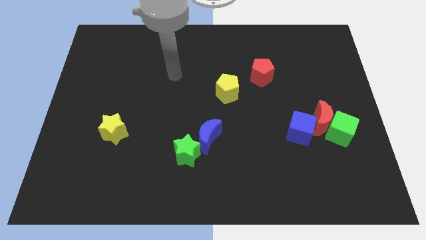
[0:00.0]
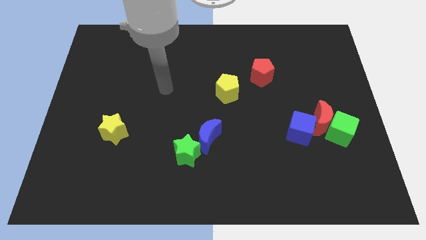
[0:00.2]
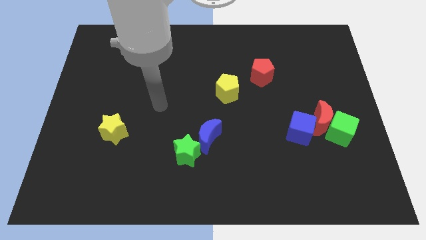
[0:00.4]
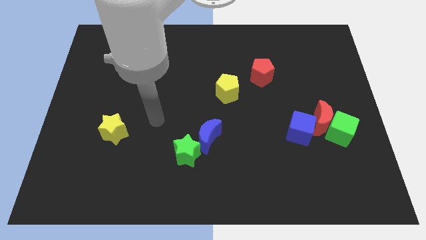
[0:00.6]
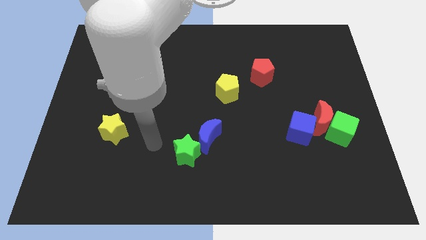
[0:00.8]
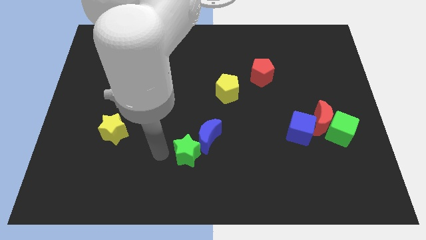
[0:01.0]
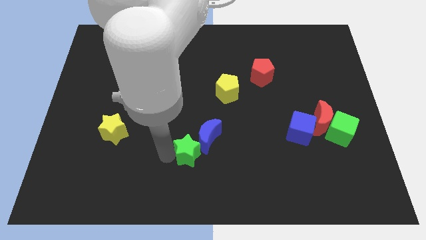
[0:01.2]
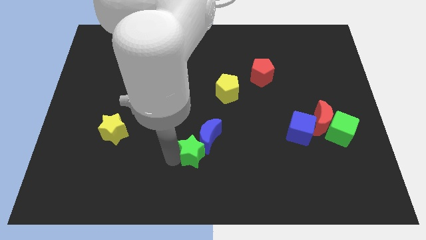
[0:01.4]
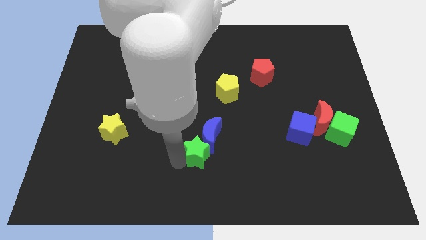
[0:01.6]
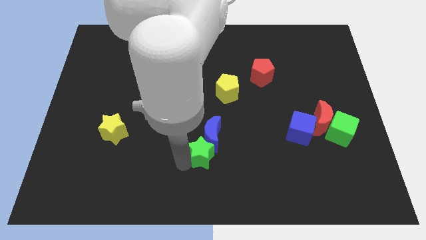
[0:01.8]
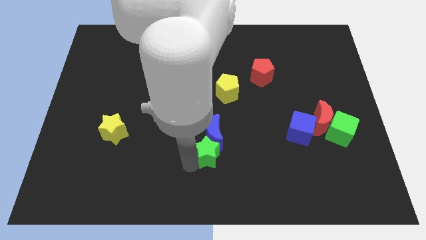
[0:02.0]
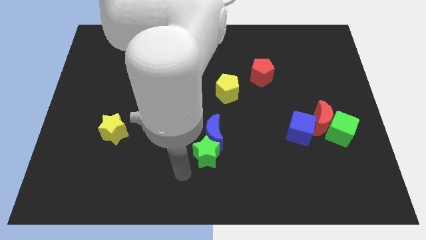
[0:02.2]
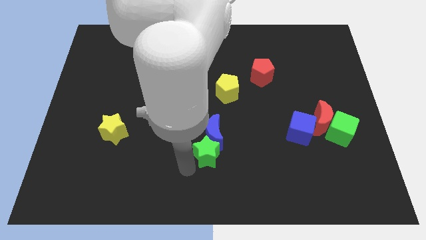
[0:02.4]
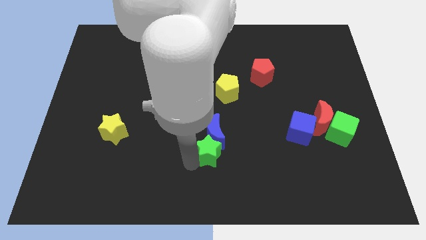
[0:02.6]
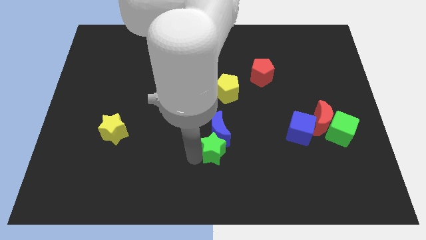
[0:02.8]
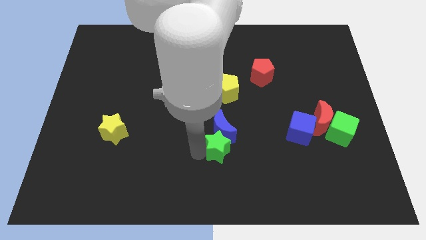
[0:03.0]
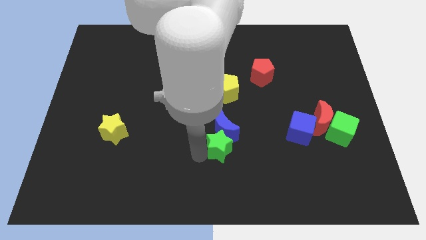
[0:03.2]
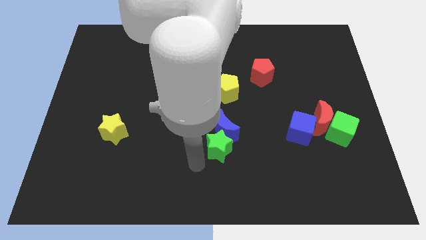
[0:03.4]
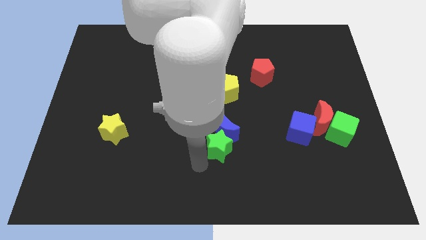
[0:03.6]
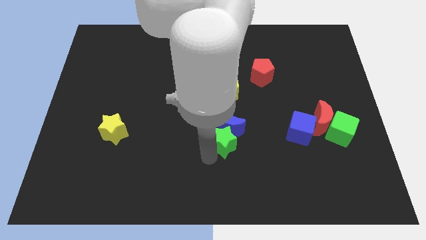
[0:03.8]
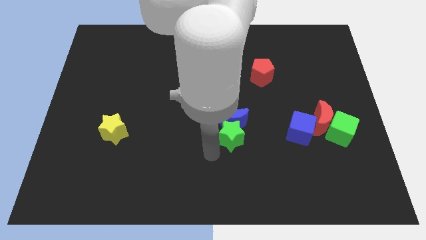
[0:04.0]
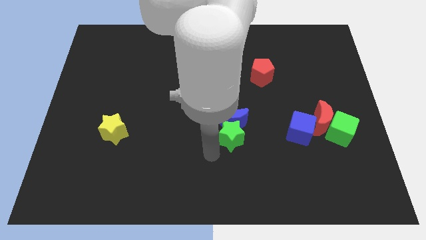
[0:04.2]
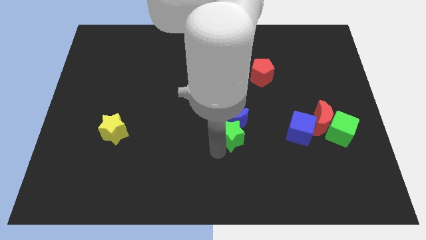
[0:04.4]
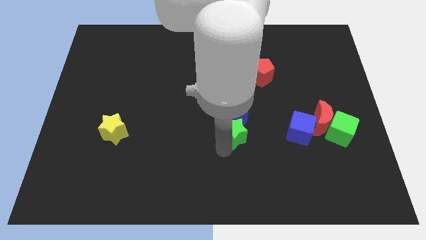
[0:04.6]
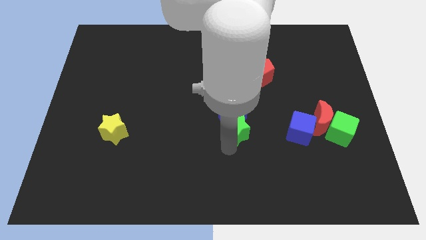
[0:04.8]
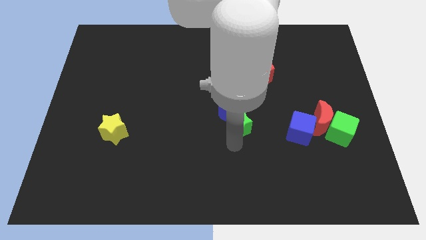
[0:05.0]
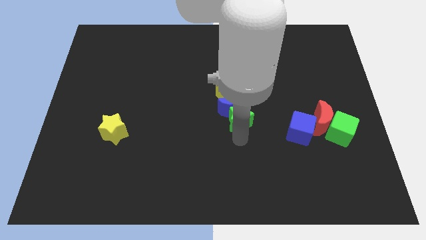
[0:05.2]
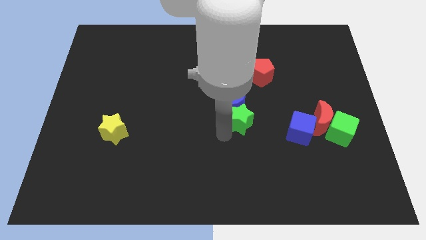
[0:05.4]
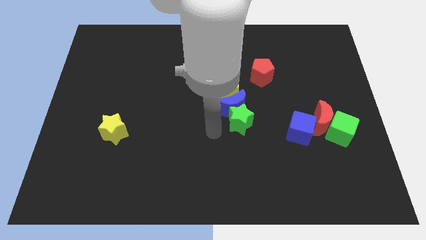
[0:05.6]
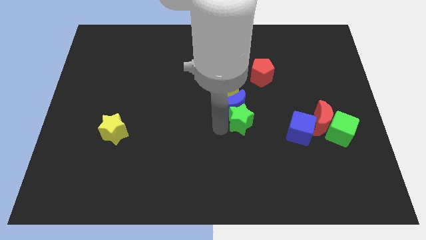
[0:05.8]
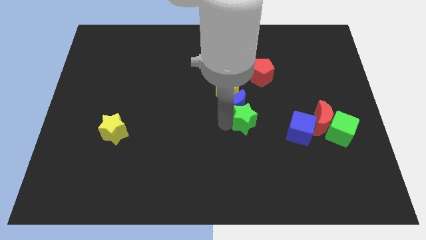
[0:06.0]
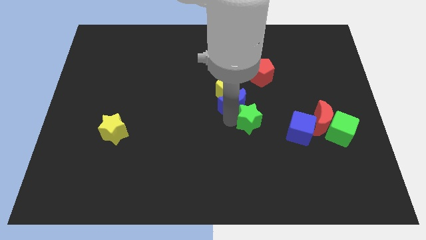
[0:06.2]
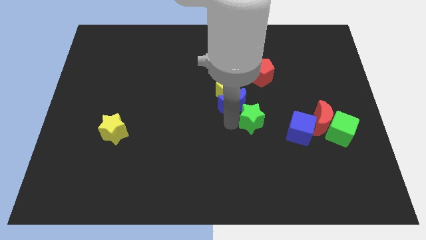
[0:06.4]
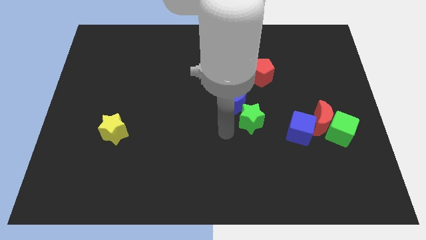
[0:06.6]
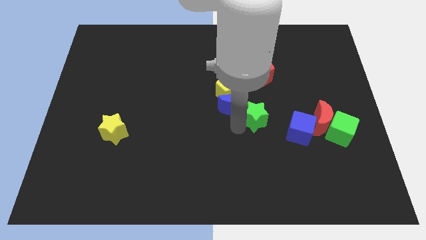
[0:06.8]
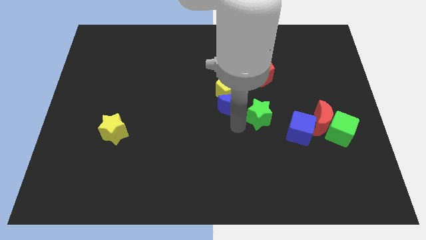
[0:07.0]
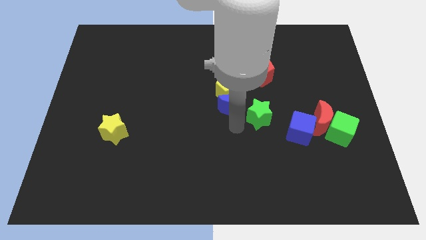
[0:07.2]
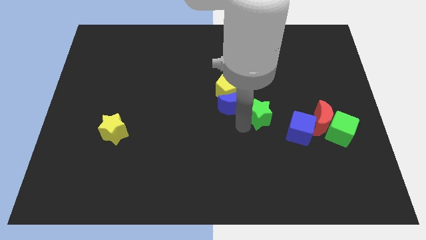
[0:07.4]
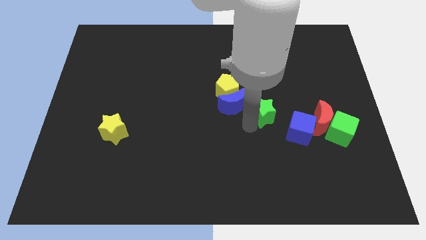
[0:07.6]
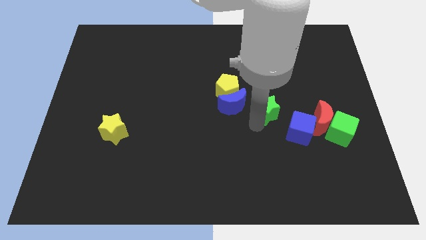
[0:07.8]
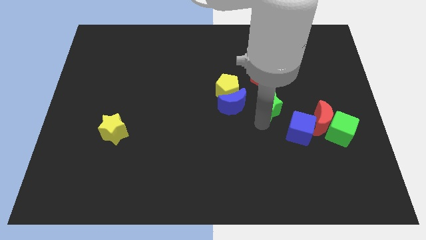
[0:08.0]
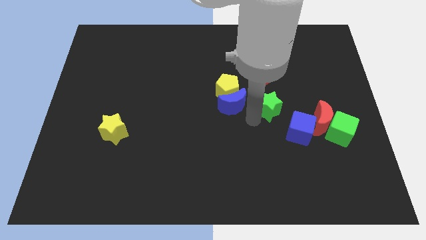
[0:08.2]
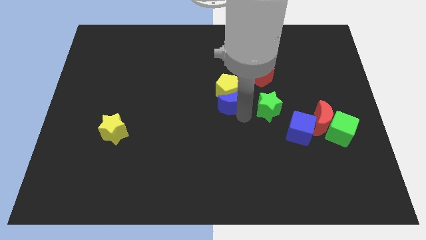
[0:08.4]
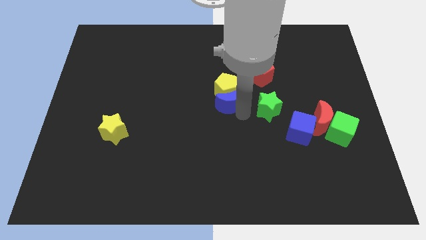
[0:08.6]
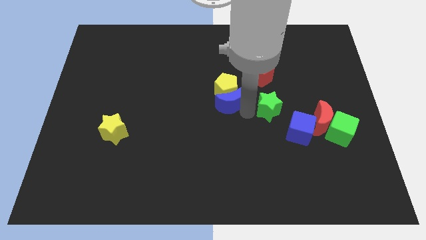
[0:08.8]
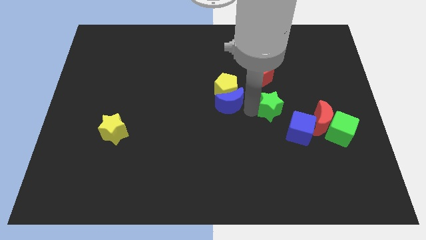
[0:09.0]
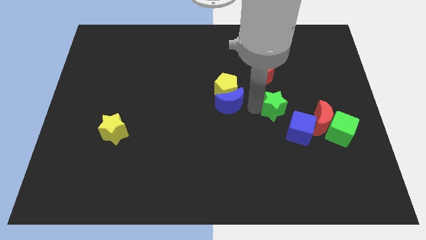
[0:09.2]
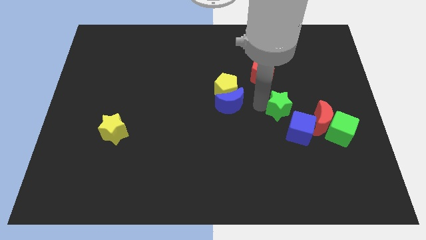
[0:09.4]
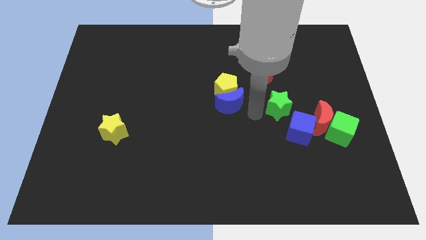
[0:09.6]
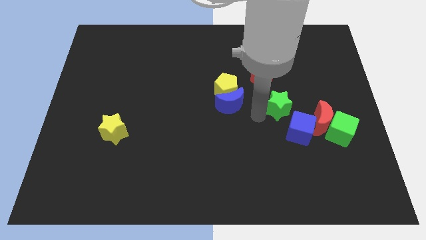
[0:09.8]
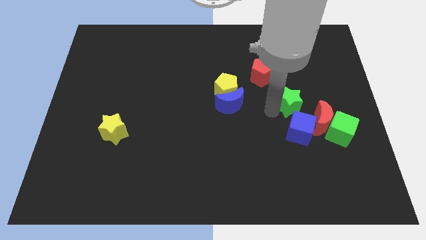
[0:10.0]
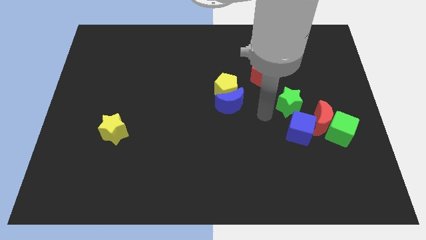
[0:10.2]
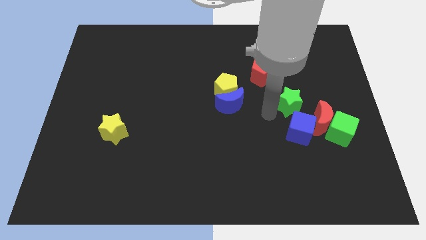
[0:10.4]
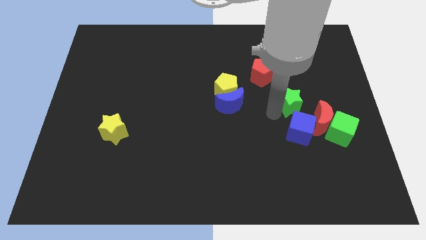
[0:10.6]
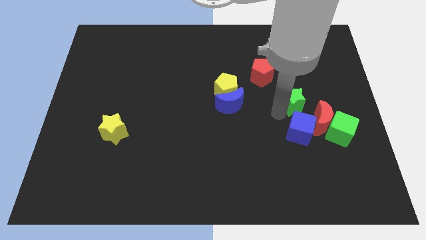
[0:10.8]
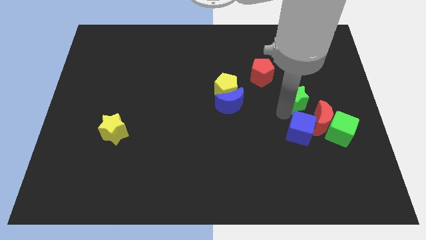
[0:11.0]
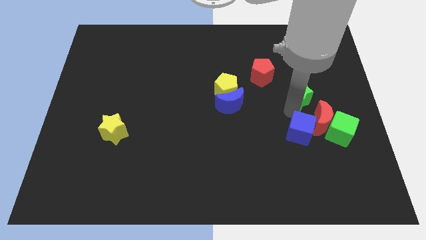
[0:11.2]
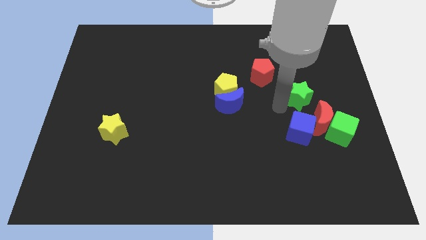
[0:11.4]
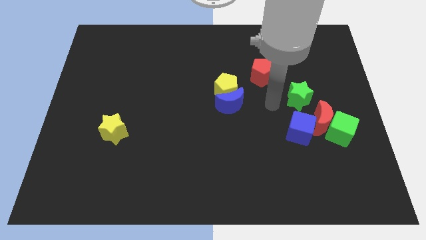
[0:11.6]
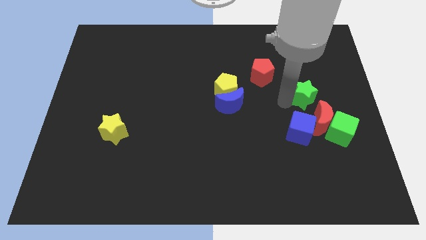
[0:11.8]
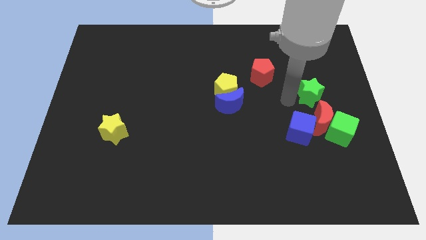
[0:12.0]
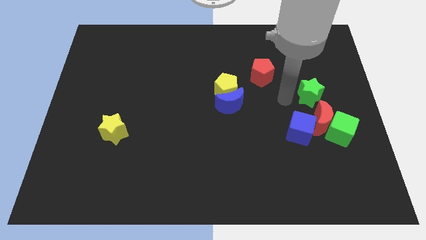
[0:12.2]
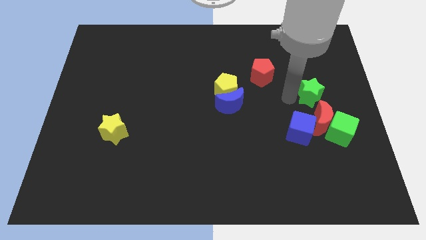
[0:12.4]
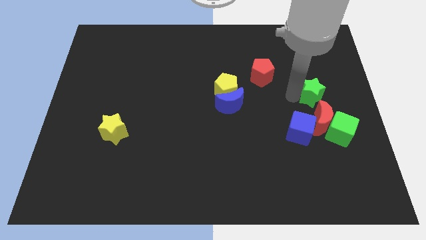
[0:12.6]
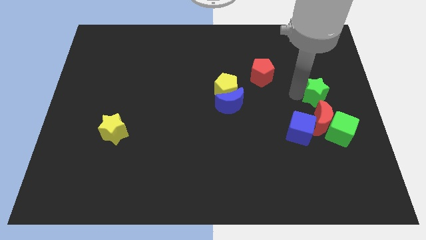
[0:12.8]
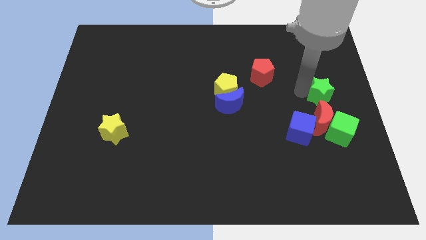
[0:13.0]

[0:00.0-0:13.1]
push the green star to the right side
